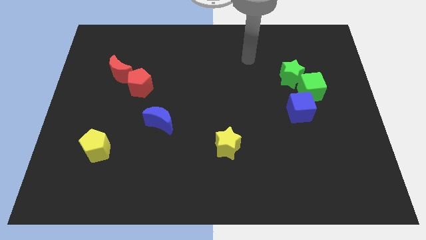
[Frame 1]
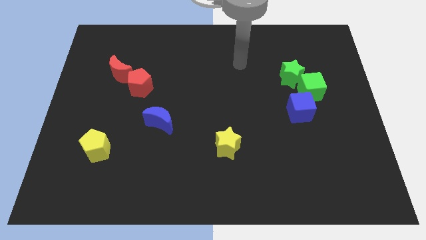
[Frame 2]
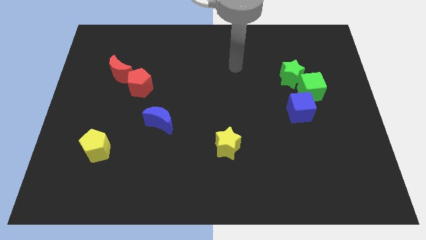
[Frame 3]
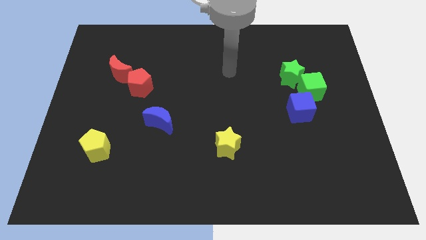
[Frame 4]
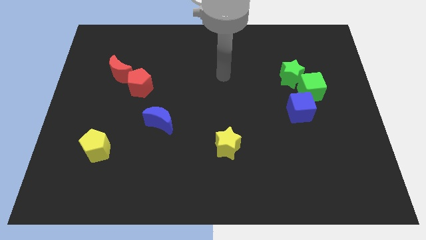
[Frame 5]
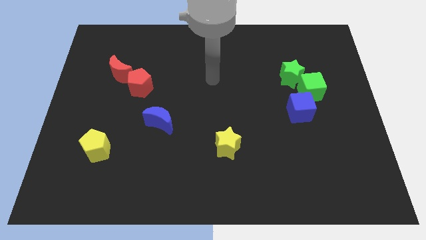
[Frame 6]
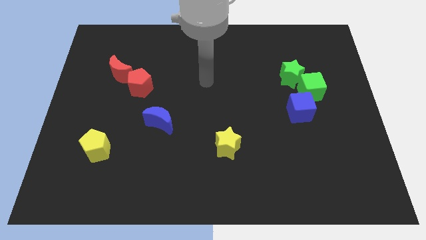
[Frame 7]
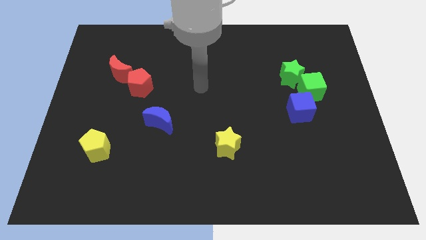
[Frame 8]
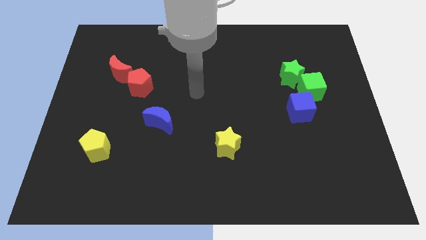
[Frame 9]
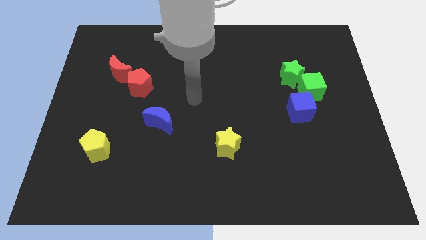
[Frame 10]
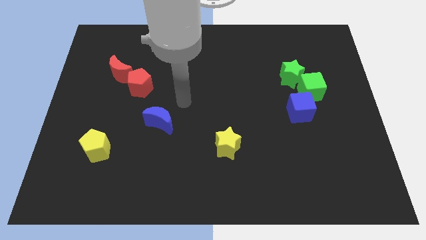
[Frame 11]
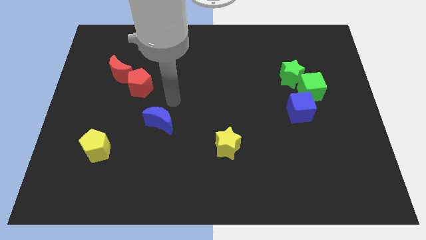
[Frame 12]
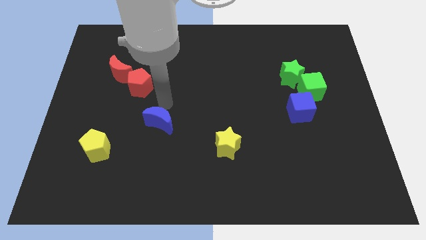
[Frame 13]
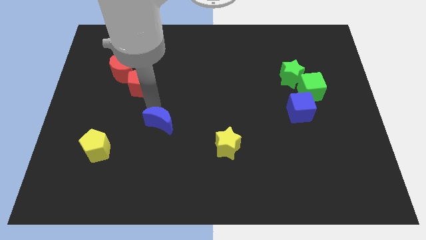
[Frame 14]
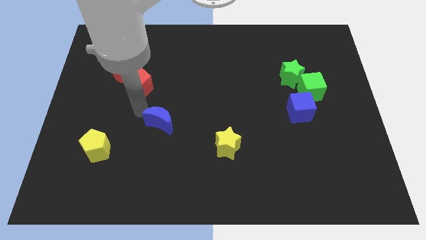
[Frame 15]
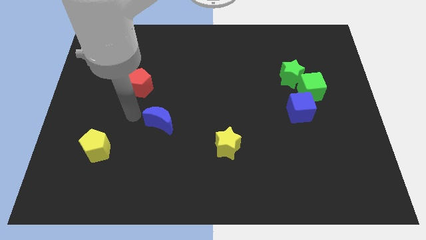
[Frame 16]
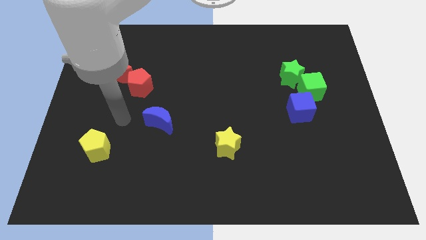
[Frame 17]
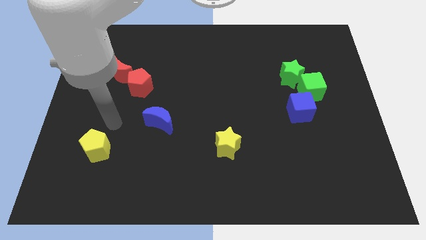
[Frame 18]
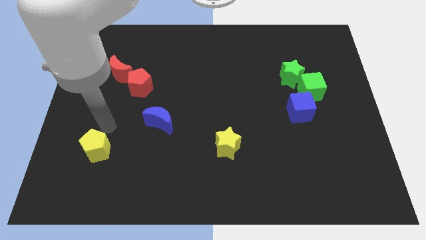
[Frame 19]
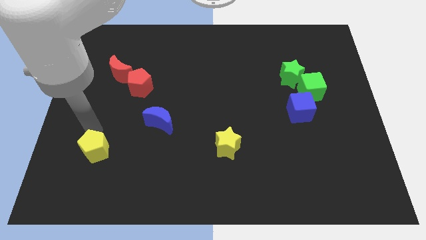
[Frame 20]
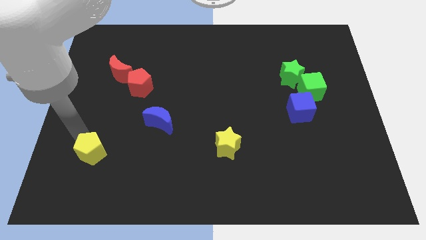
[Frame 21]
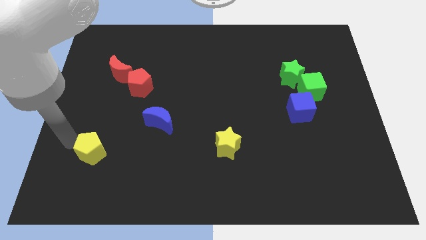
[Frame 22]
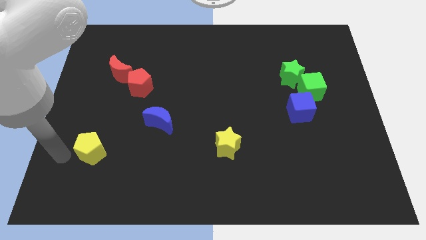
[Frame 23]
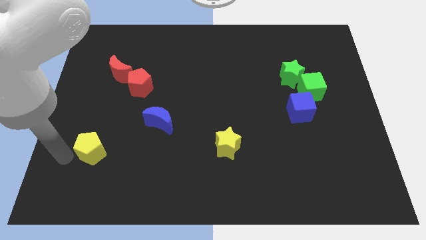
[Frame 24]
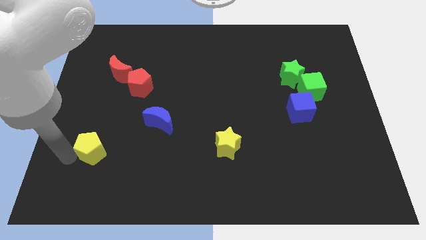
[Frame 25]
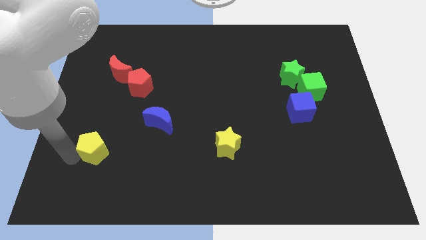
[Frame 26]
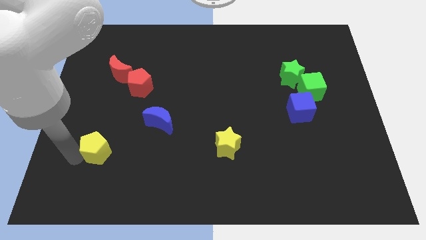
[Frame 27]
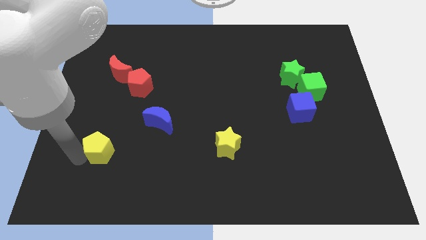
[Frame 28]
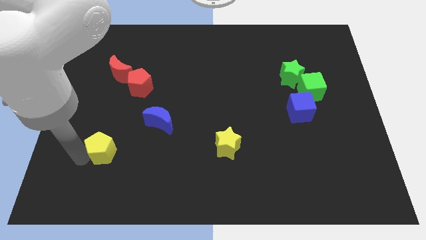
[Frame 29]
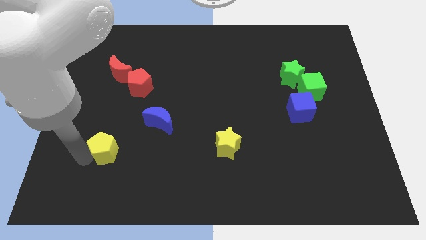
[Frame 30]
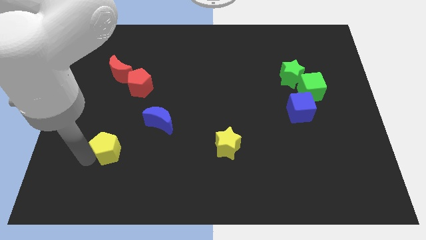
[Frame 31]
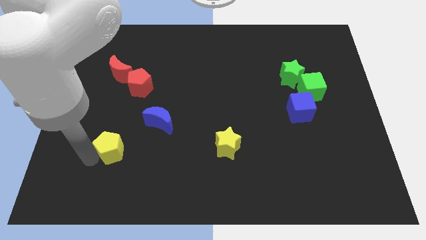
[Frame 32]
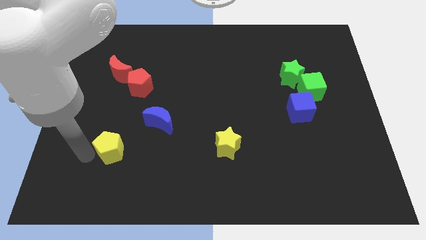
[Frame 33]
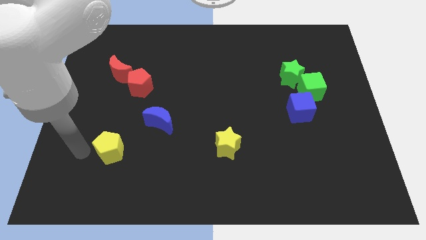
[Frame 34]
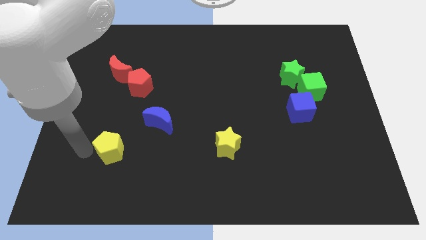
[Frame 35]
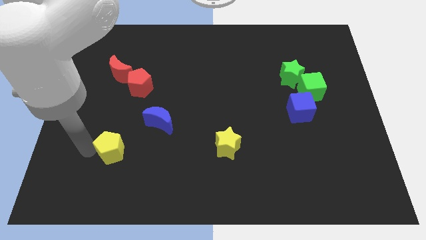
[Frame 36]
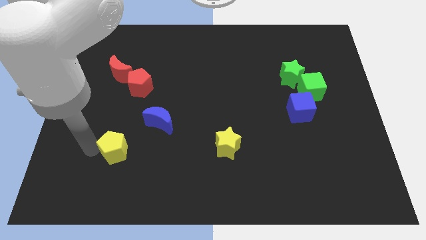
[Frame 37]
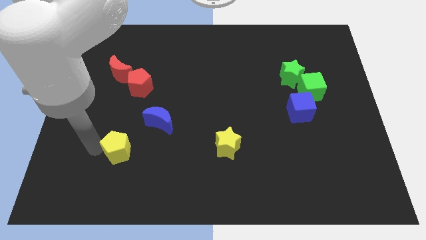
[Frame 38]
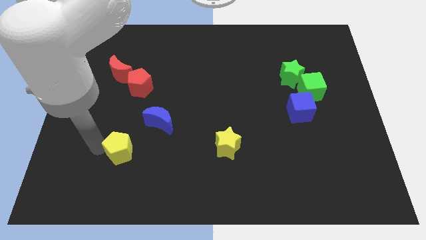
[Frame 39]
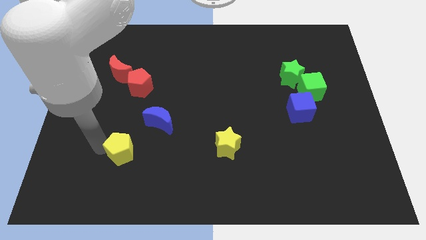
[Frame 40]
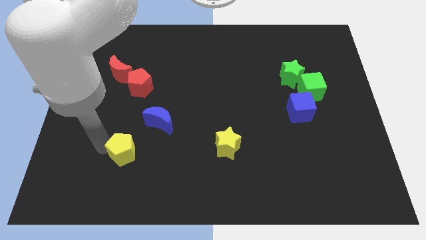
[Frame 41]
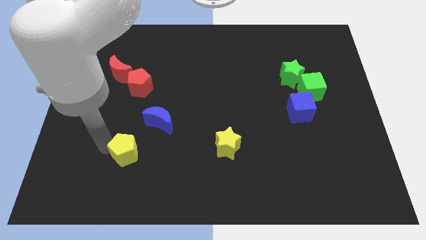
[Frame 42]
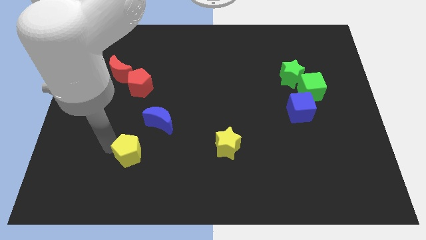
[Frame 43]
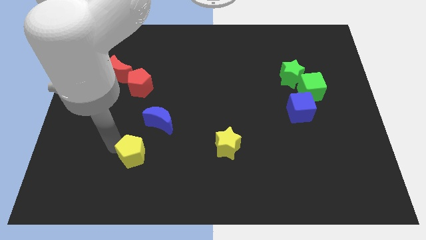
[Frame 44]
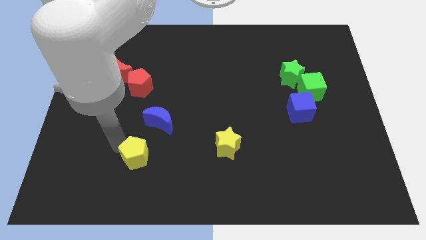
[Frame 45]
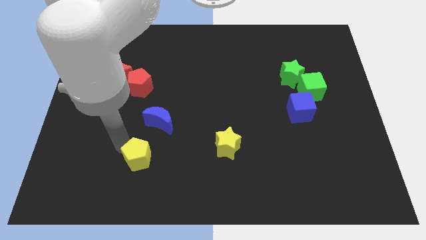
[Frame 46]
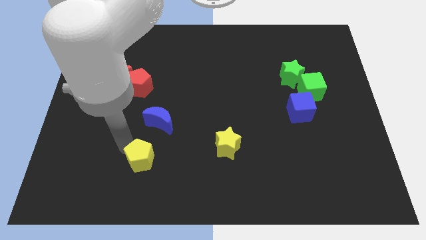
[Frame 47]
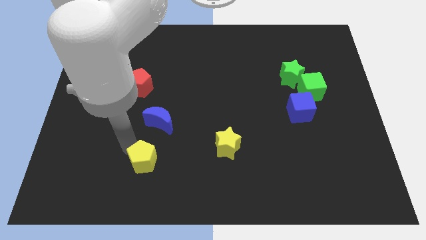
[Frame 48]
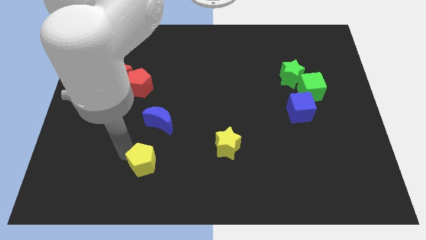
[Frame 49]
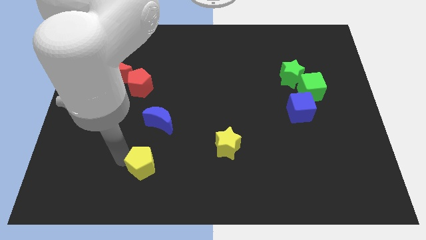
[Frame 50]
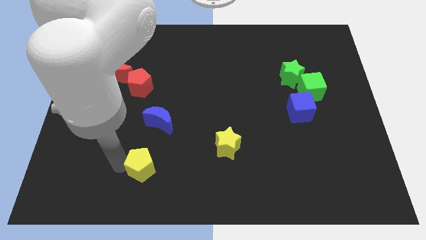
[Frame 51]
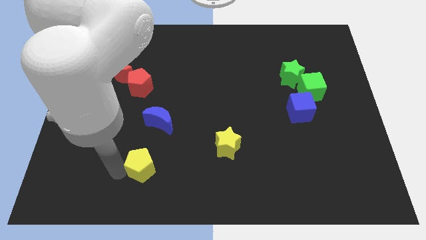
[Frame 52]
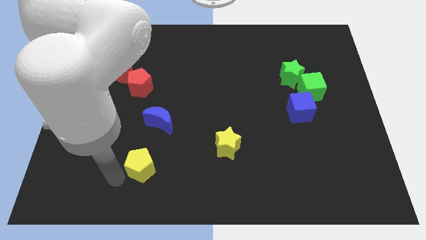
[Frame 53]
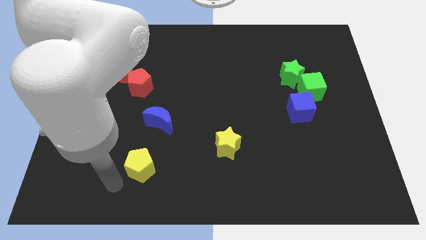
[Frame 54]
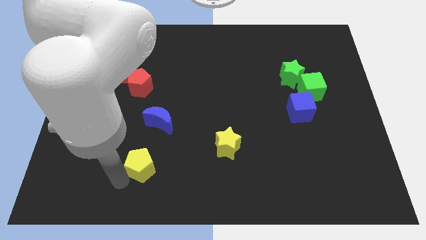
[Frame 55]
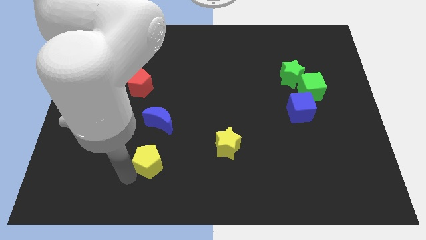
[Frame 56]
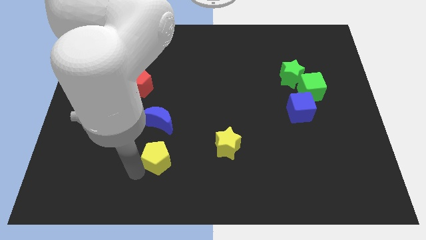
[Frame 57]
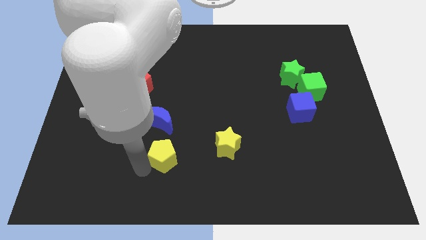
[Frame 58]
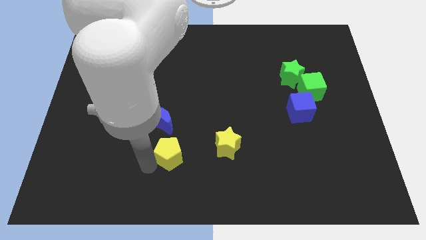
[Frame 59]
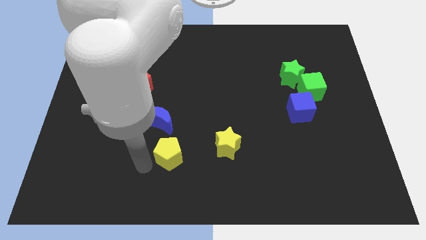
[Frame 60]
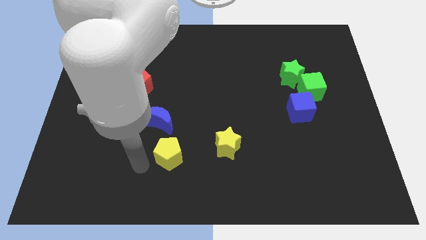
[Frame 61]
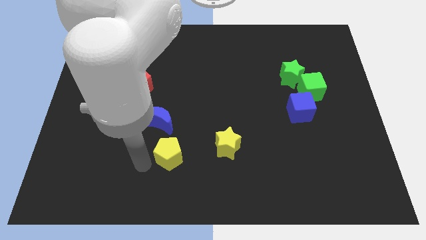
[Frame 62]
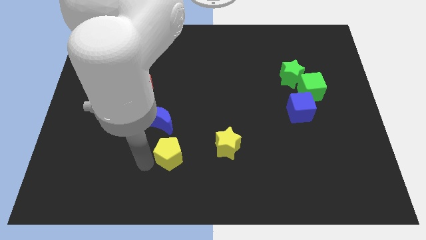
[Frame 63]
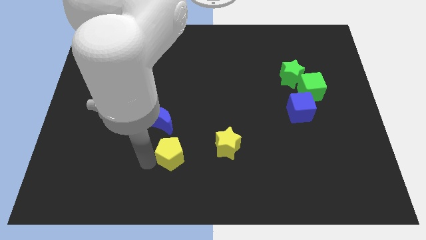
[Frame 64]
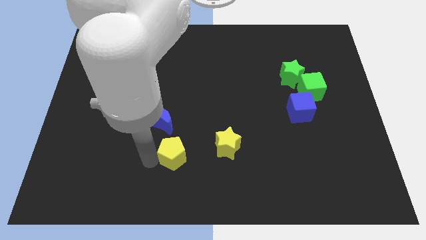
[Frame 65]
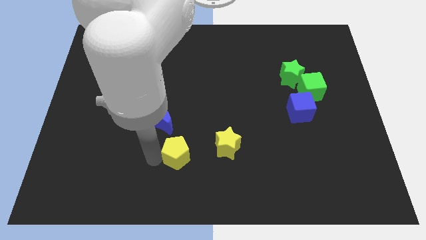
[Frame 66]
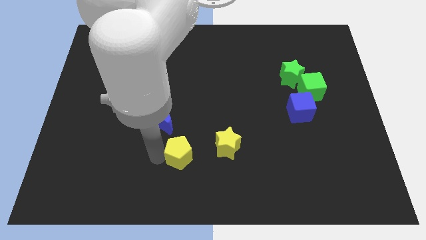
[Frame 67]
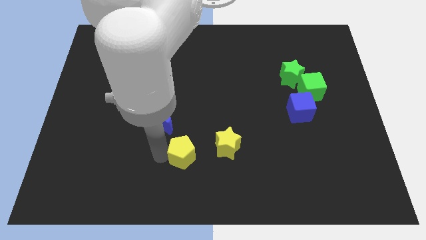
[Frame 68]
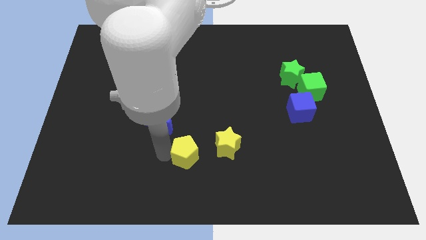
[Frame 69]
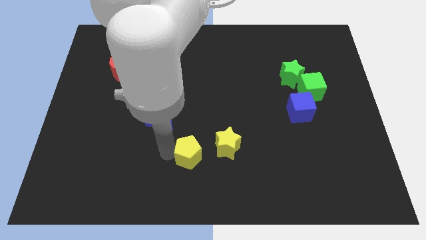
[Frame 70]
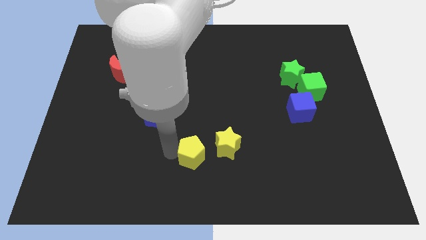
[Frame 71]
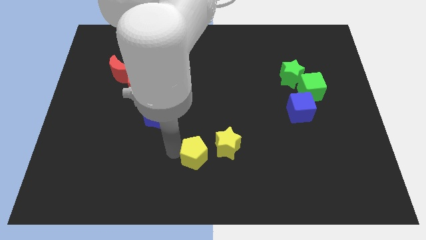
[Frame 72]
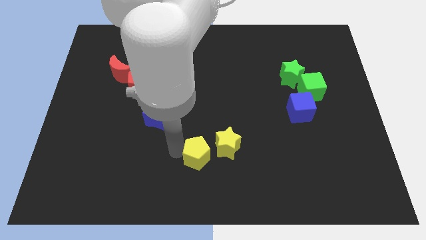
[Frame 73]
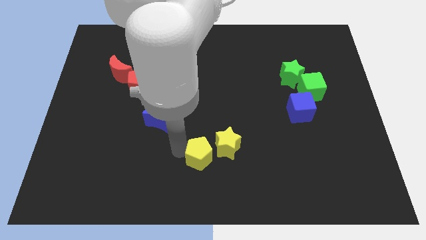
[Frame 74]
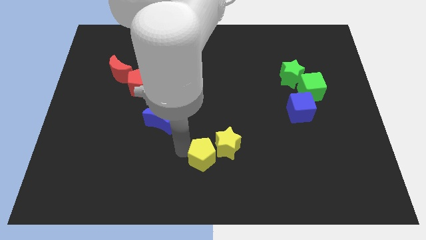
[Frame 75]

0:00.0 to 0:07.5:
slide the yellow pentagon to the yellow star
